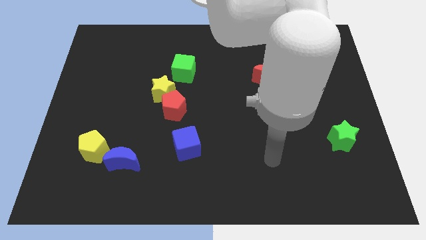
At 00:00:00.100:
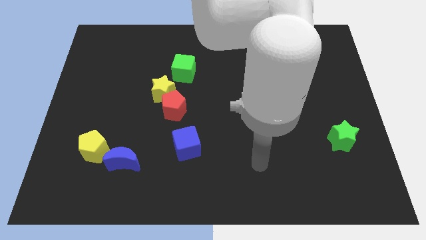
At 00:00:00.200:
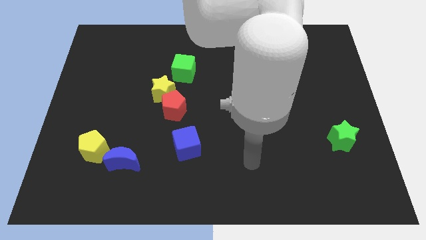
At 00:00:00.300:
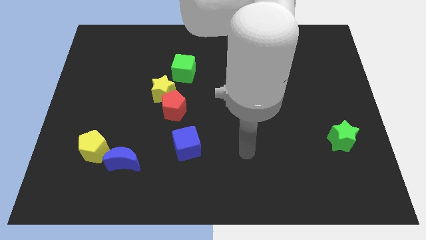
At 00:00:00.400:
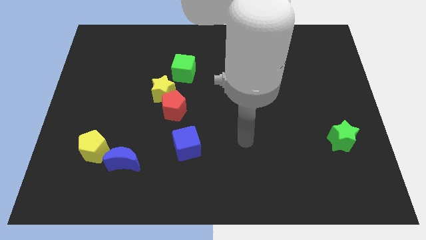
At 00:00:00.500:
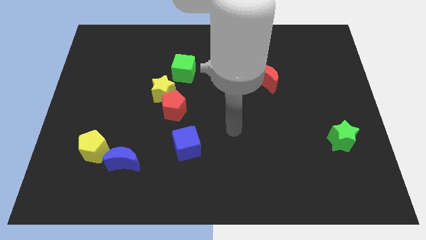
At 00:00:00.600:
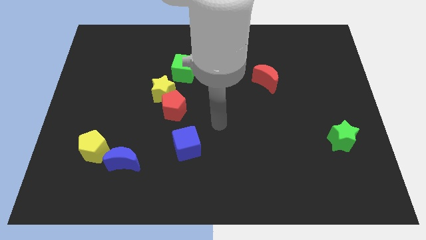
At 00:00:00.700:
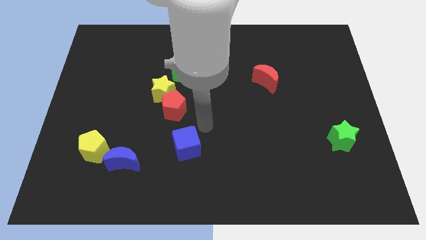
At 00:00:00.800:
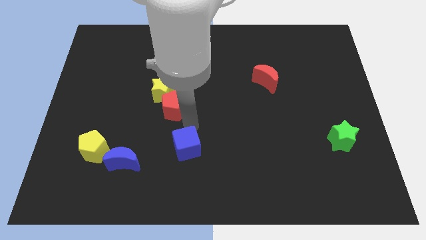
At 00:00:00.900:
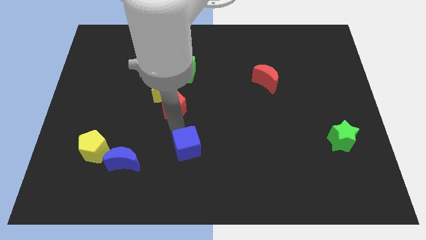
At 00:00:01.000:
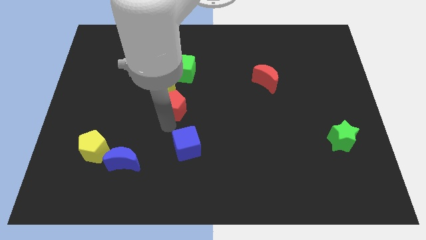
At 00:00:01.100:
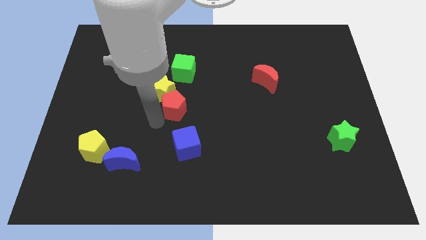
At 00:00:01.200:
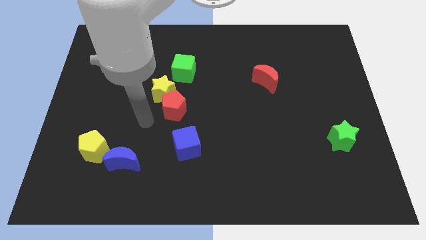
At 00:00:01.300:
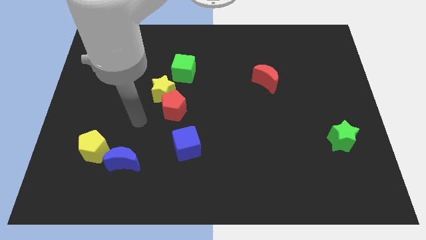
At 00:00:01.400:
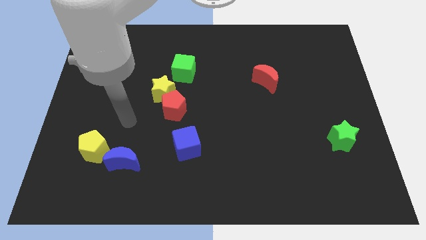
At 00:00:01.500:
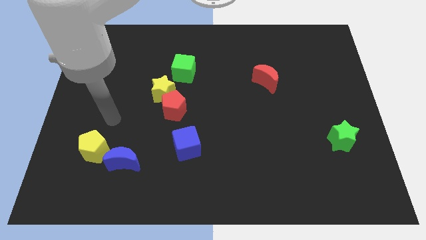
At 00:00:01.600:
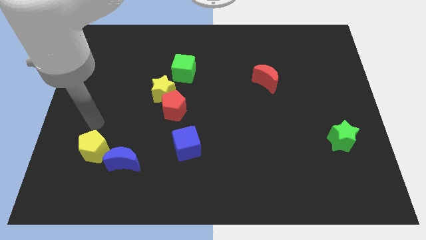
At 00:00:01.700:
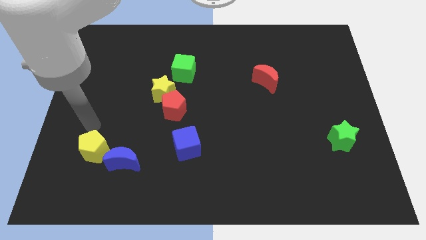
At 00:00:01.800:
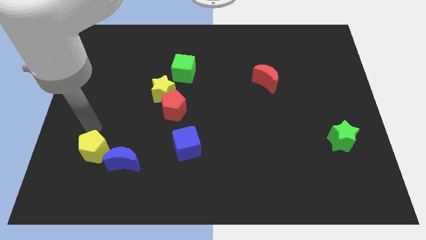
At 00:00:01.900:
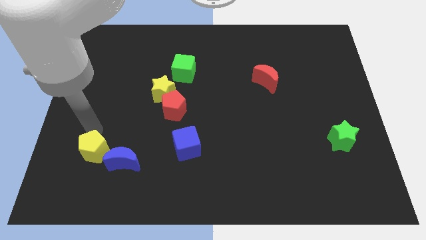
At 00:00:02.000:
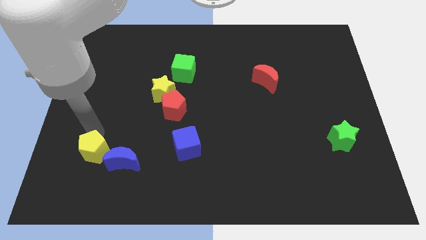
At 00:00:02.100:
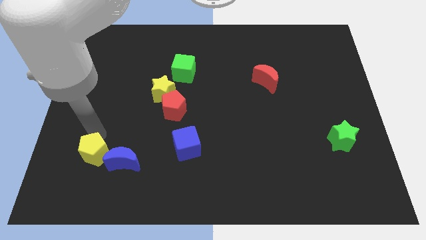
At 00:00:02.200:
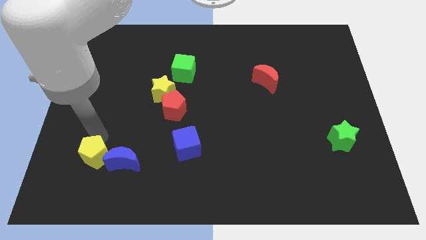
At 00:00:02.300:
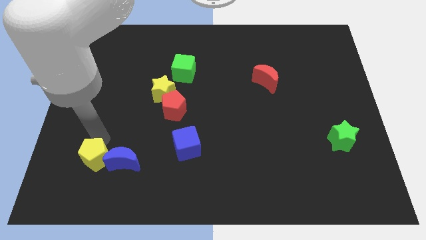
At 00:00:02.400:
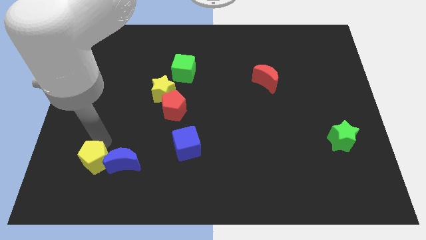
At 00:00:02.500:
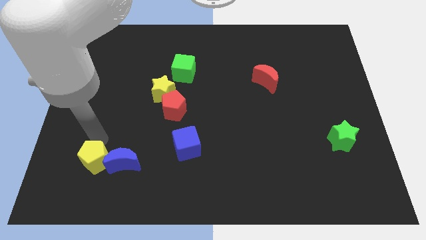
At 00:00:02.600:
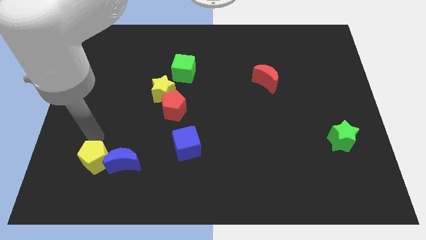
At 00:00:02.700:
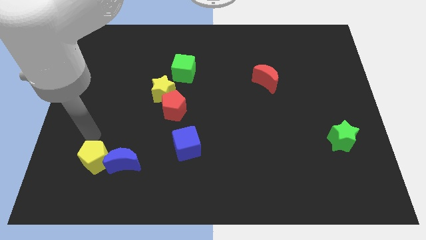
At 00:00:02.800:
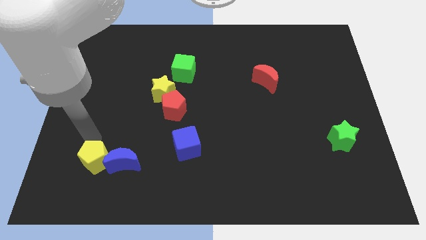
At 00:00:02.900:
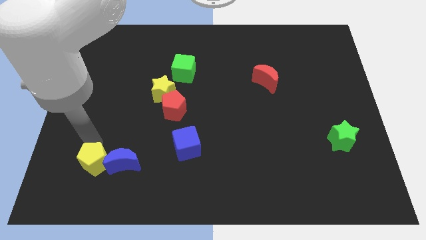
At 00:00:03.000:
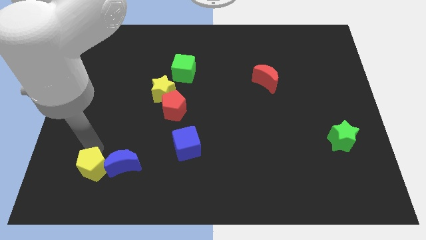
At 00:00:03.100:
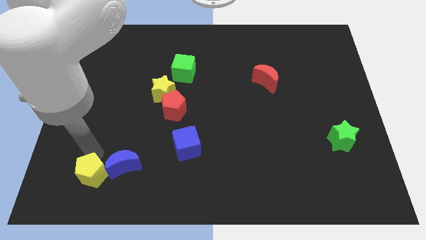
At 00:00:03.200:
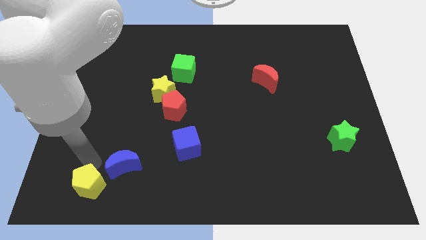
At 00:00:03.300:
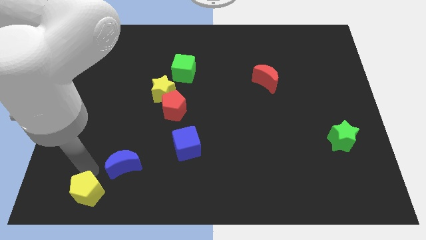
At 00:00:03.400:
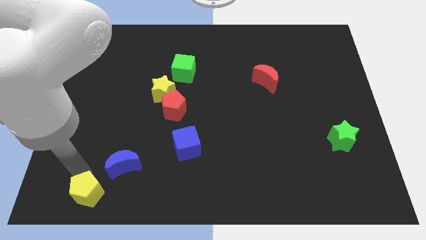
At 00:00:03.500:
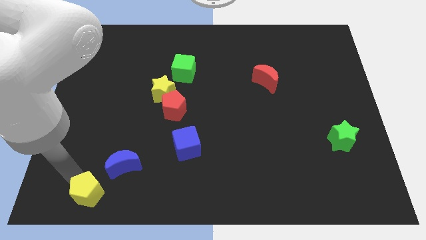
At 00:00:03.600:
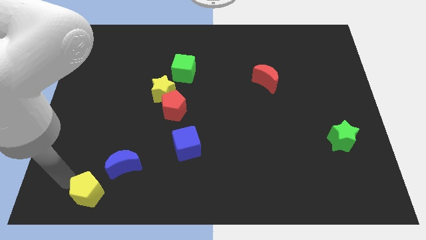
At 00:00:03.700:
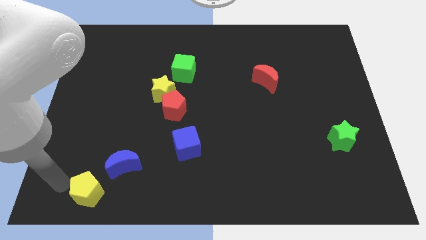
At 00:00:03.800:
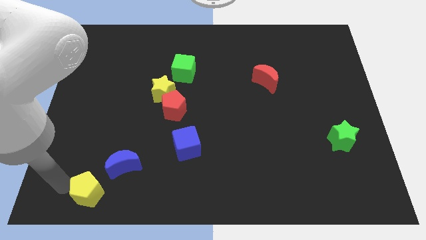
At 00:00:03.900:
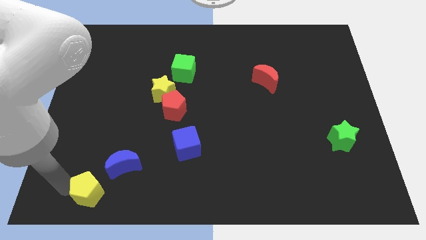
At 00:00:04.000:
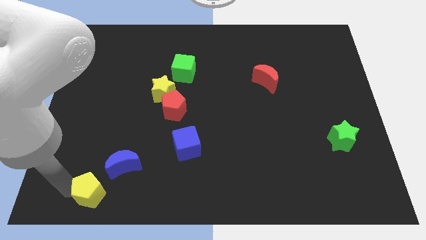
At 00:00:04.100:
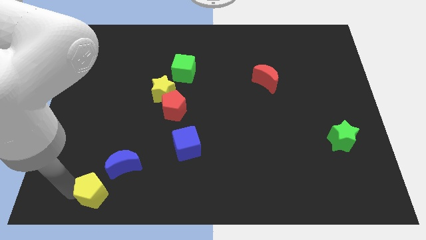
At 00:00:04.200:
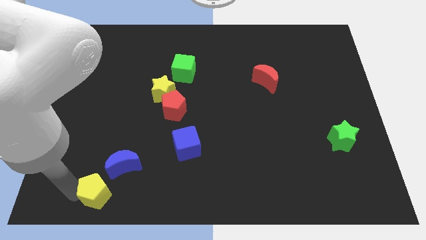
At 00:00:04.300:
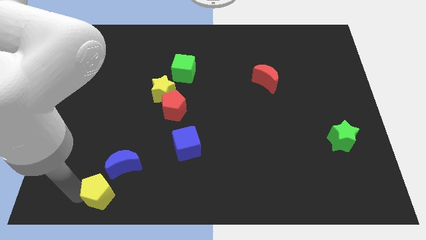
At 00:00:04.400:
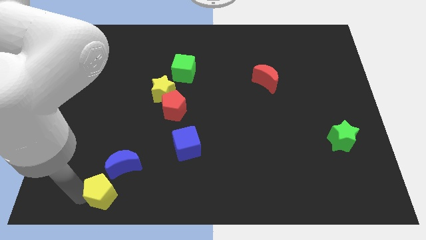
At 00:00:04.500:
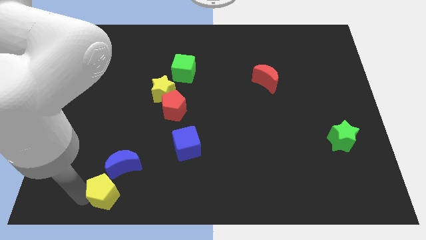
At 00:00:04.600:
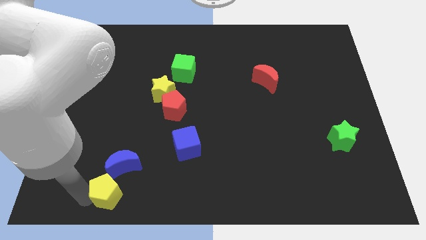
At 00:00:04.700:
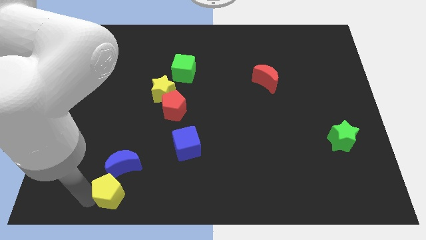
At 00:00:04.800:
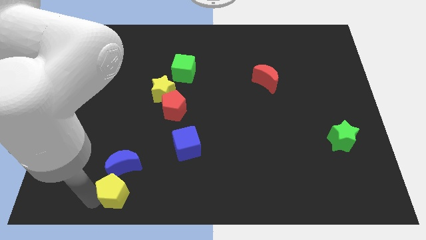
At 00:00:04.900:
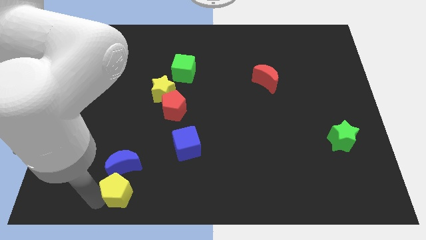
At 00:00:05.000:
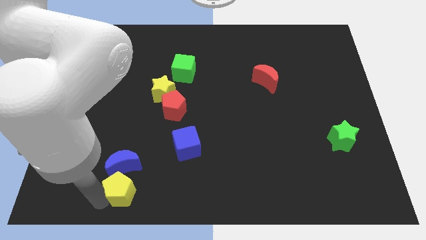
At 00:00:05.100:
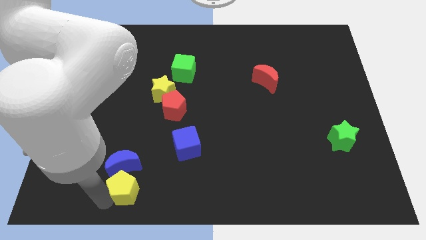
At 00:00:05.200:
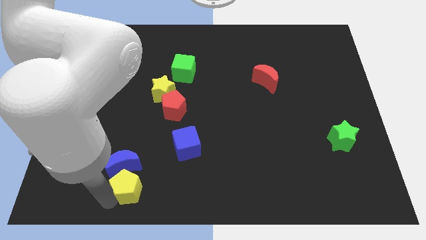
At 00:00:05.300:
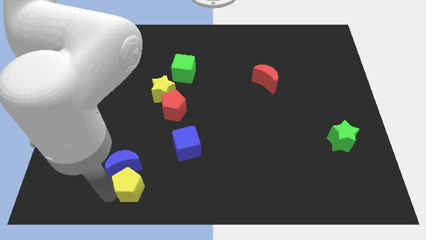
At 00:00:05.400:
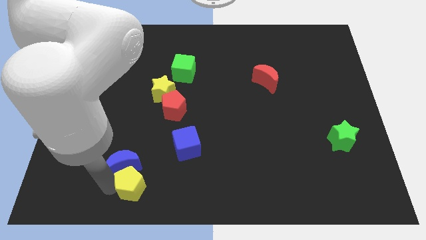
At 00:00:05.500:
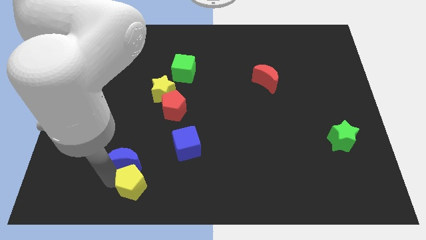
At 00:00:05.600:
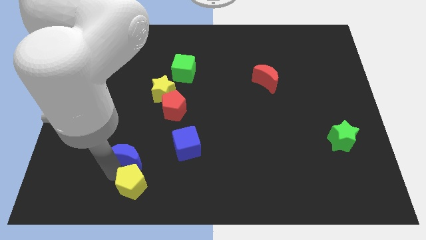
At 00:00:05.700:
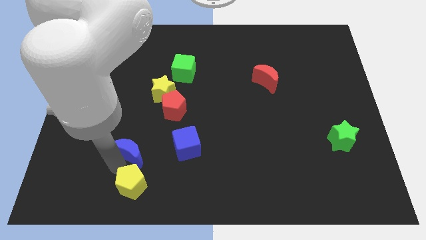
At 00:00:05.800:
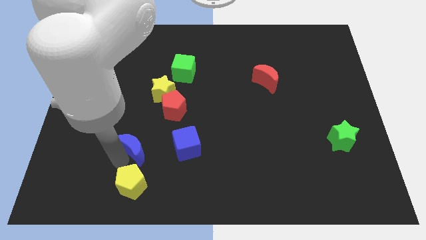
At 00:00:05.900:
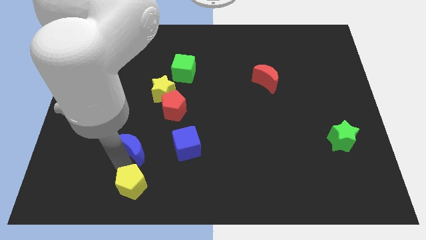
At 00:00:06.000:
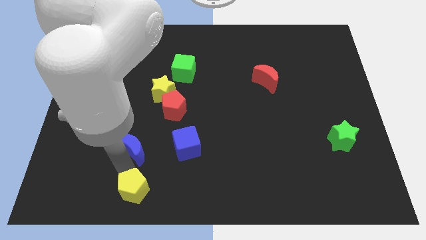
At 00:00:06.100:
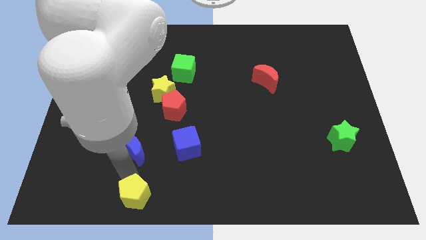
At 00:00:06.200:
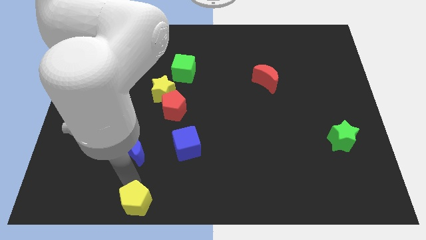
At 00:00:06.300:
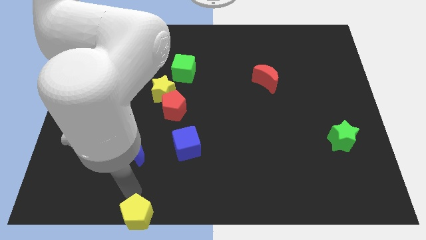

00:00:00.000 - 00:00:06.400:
put the yellow pentagon to the bottom
